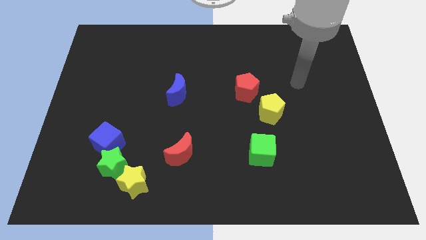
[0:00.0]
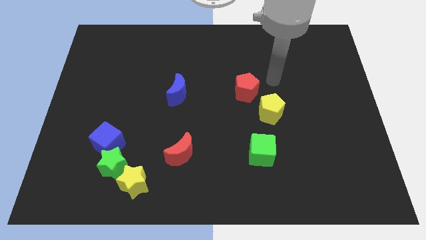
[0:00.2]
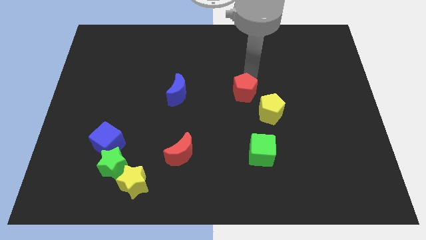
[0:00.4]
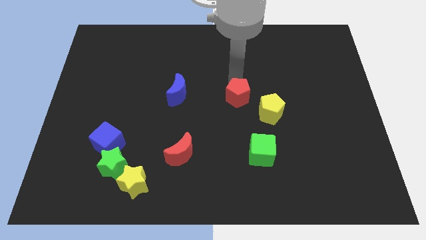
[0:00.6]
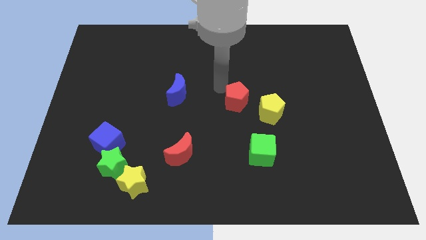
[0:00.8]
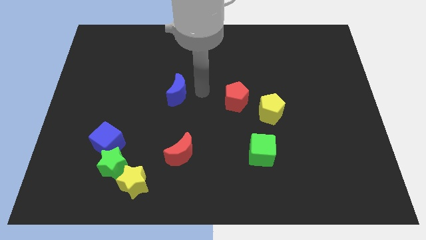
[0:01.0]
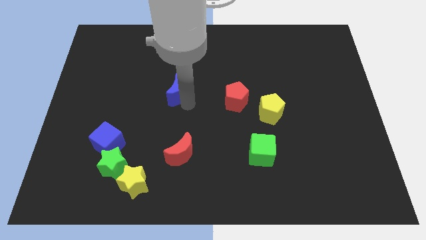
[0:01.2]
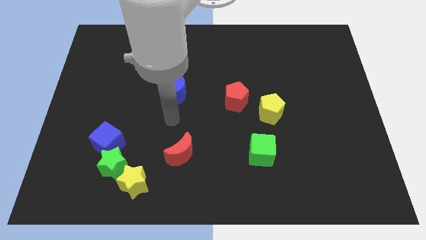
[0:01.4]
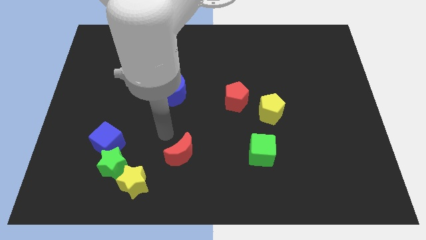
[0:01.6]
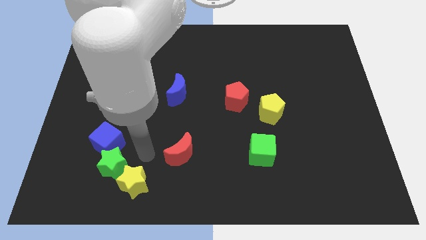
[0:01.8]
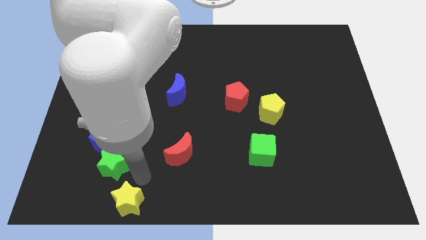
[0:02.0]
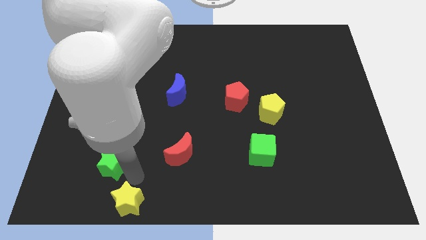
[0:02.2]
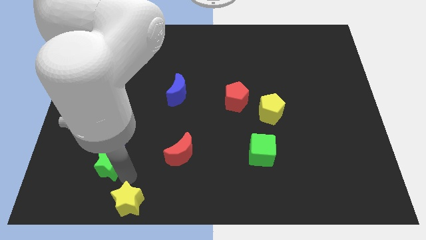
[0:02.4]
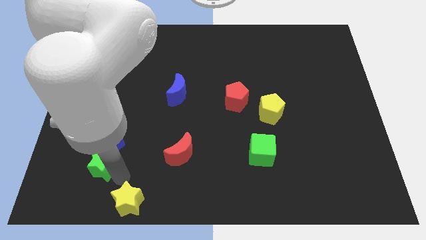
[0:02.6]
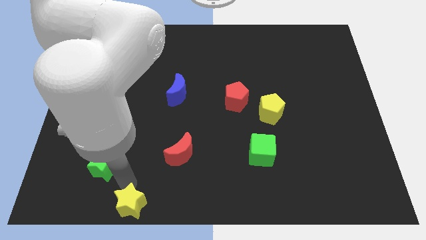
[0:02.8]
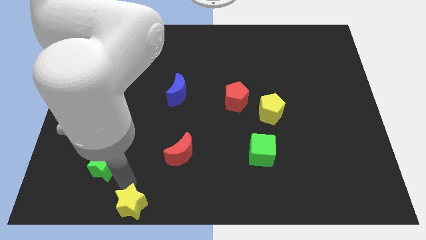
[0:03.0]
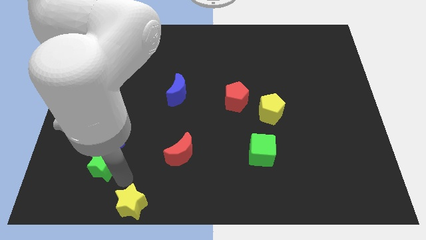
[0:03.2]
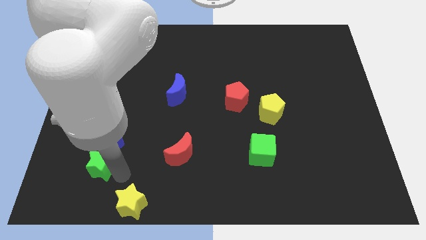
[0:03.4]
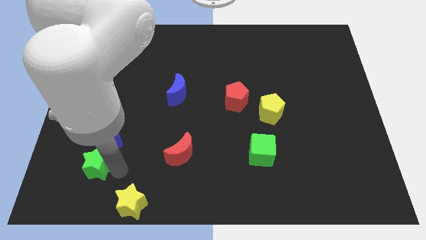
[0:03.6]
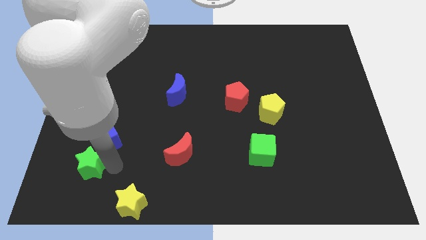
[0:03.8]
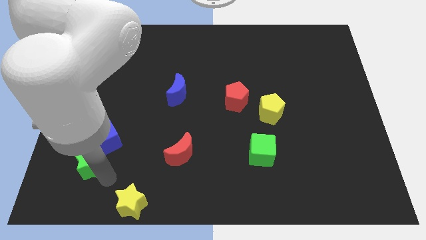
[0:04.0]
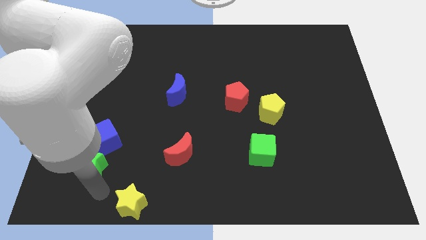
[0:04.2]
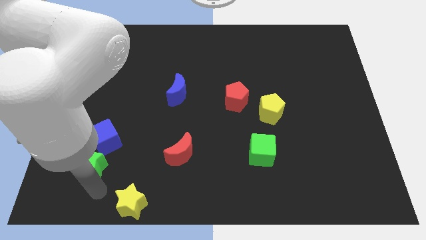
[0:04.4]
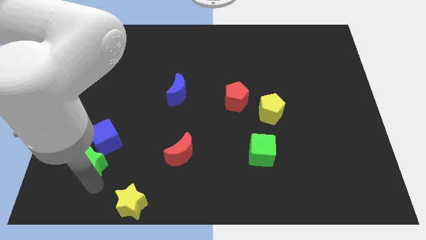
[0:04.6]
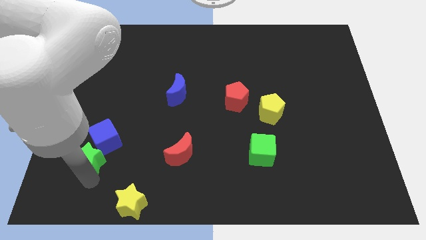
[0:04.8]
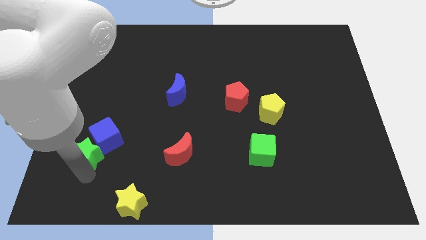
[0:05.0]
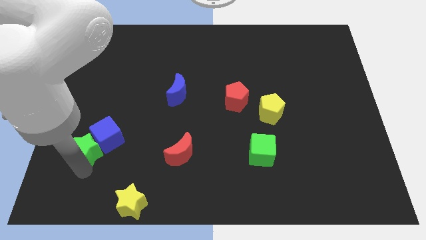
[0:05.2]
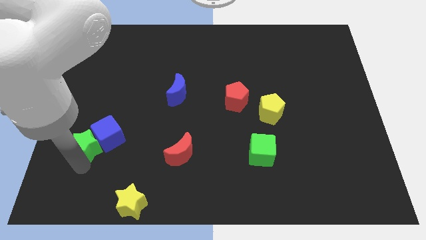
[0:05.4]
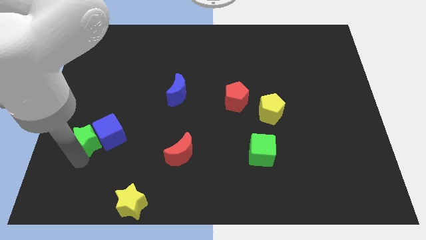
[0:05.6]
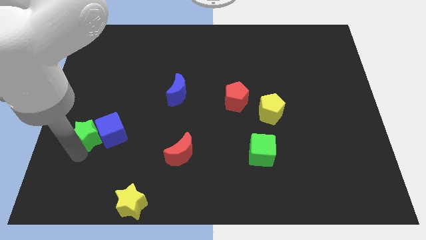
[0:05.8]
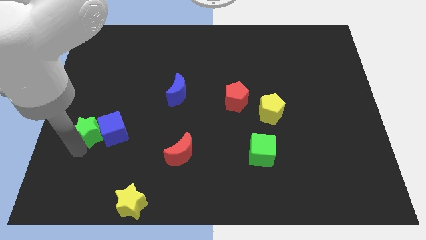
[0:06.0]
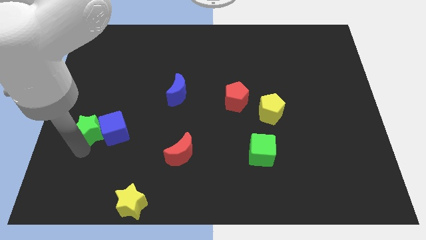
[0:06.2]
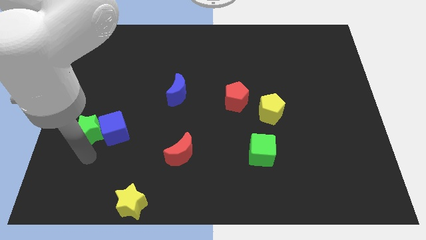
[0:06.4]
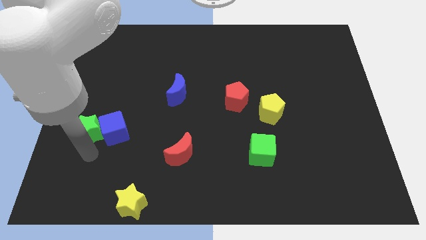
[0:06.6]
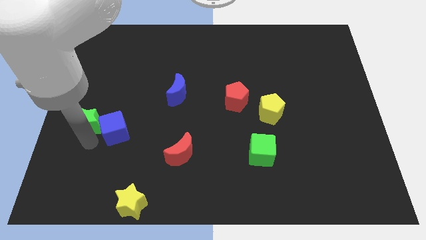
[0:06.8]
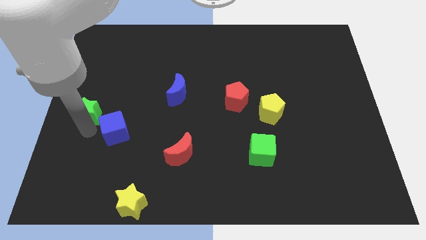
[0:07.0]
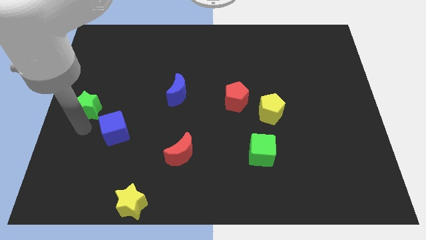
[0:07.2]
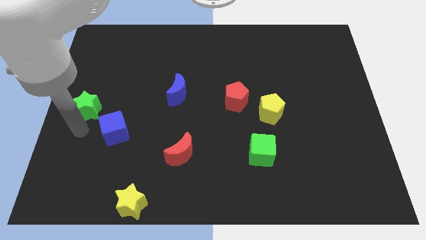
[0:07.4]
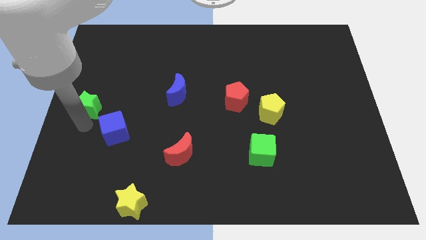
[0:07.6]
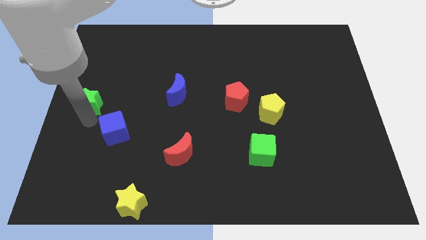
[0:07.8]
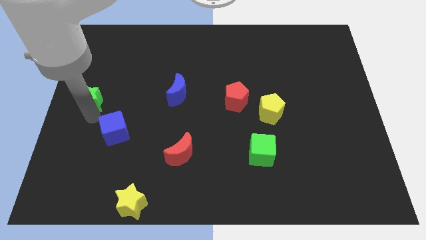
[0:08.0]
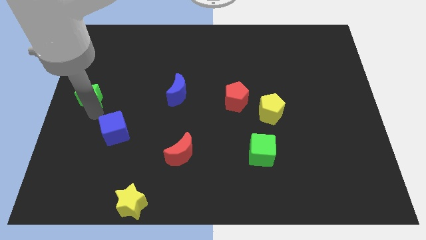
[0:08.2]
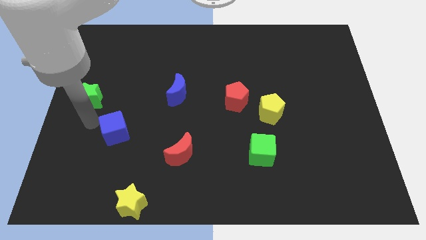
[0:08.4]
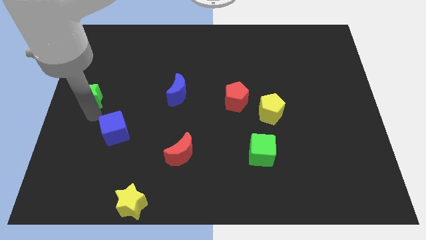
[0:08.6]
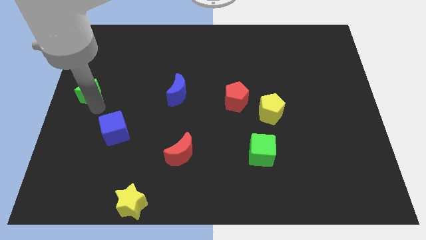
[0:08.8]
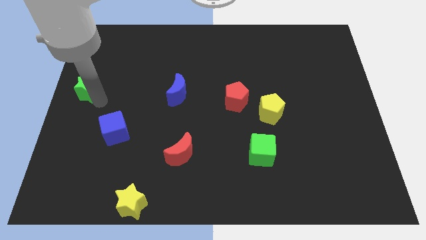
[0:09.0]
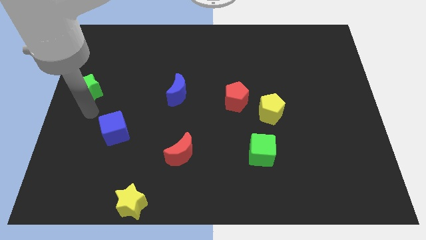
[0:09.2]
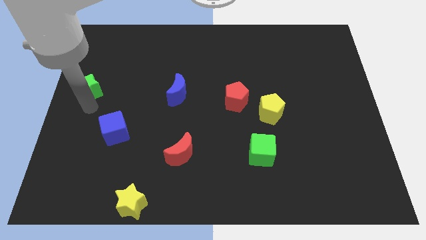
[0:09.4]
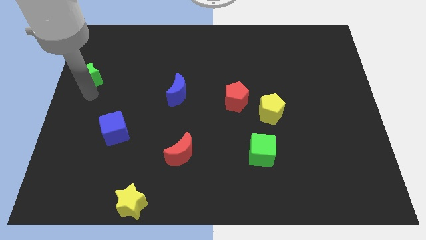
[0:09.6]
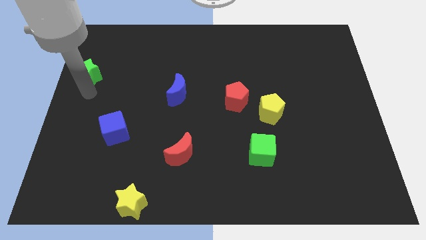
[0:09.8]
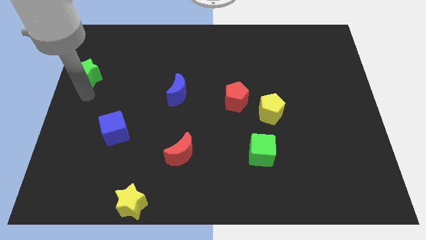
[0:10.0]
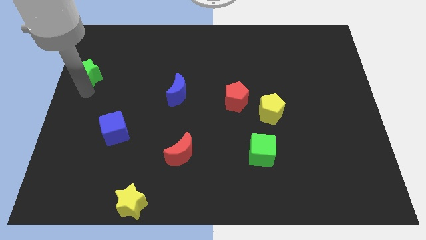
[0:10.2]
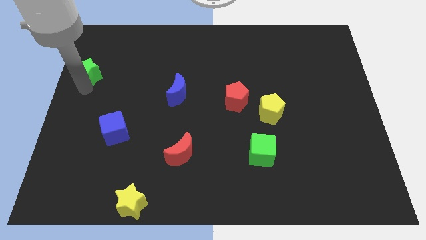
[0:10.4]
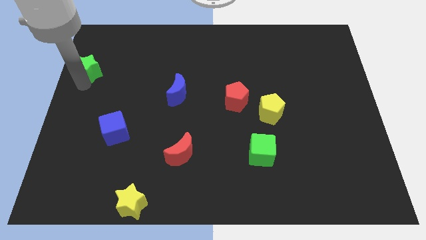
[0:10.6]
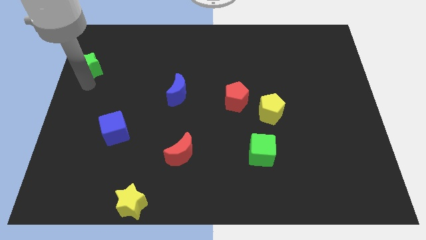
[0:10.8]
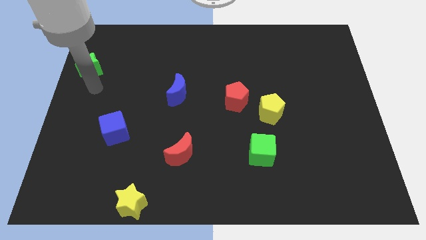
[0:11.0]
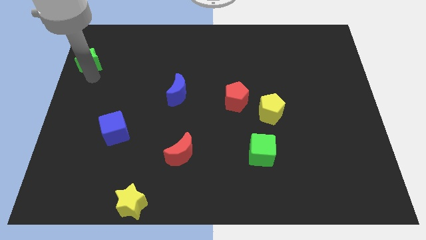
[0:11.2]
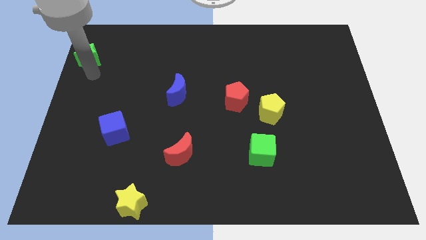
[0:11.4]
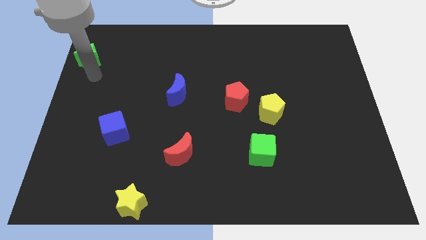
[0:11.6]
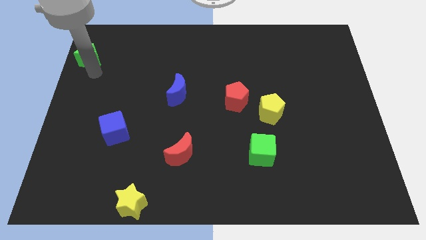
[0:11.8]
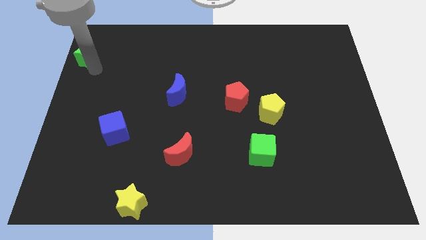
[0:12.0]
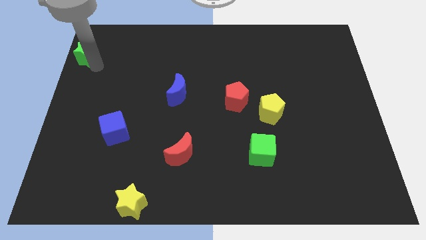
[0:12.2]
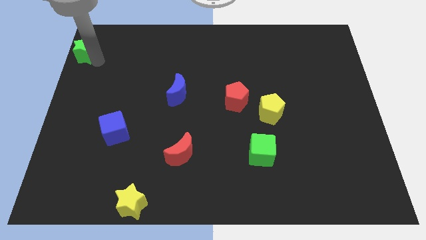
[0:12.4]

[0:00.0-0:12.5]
put the green star to the top left

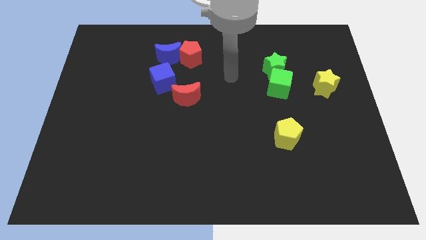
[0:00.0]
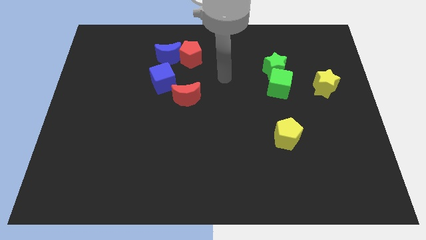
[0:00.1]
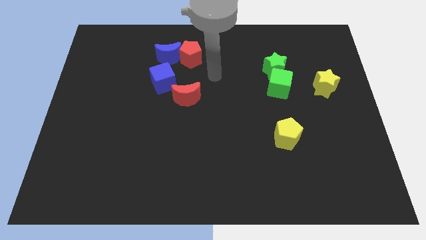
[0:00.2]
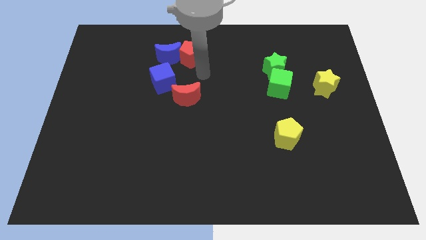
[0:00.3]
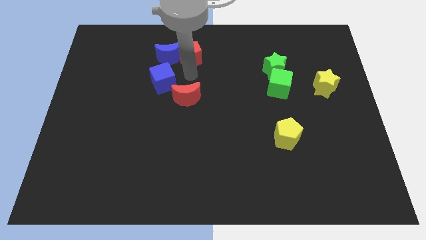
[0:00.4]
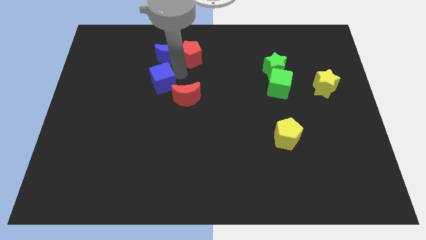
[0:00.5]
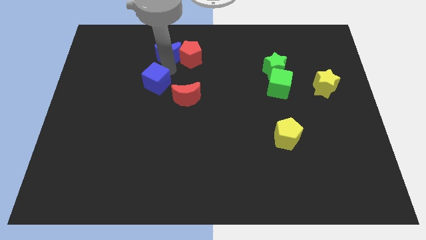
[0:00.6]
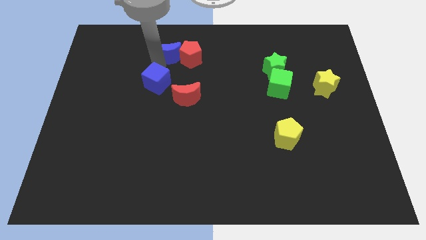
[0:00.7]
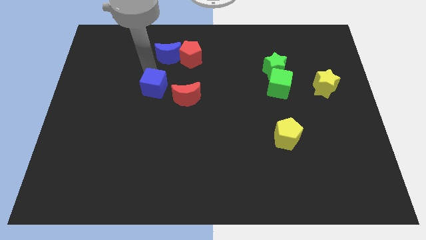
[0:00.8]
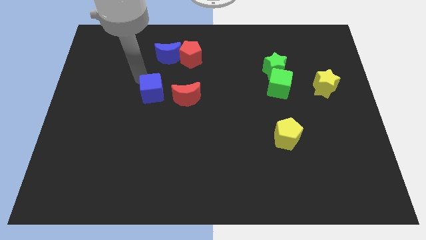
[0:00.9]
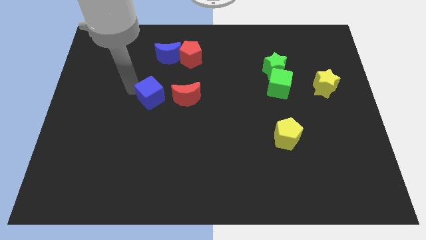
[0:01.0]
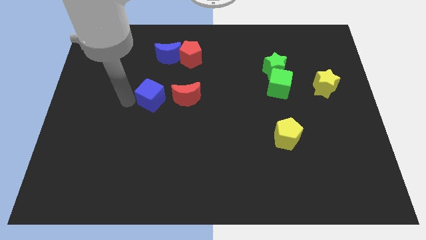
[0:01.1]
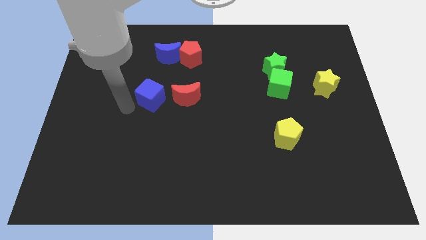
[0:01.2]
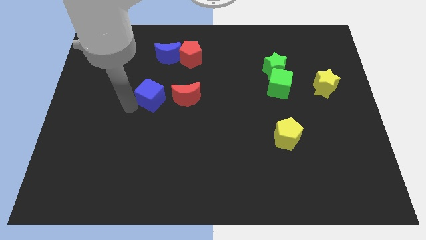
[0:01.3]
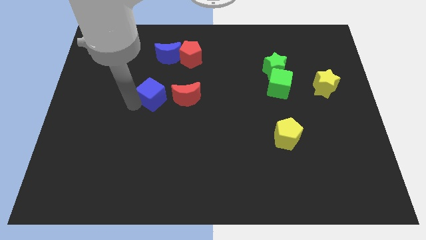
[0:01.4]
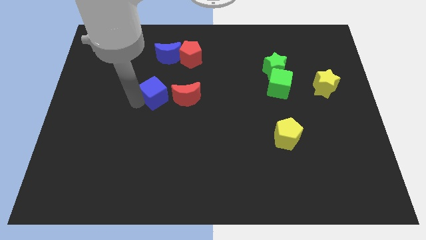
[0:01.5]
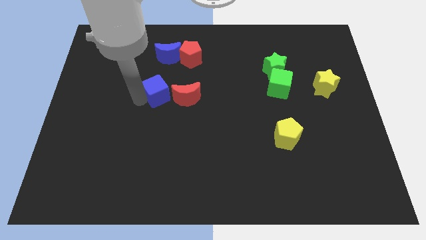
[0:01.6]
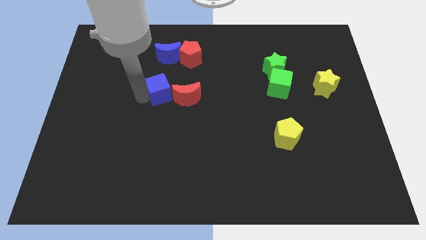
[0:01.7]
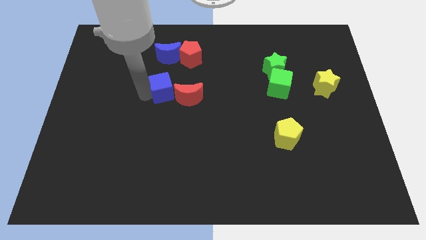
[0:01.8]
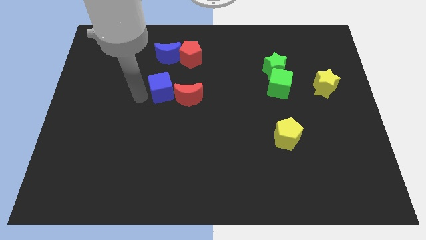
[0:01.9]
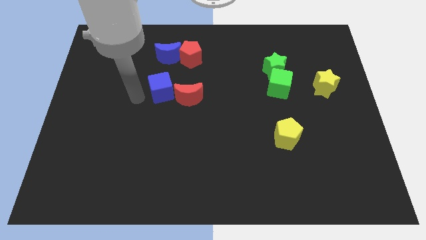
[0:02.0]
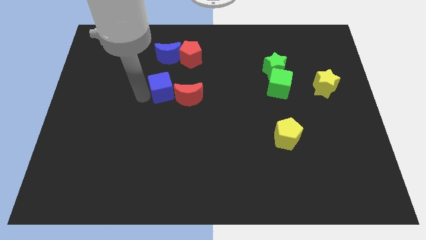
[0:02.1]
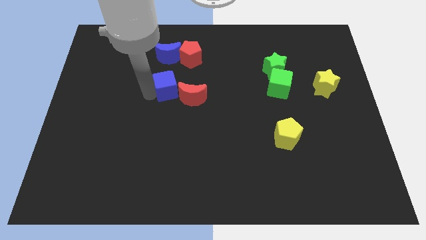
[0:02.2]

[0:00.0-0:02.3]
slide the blue cube to the middle
